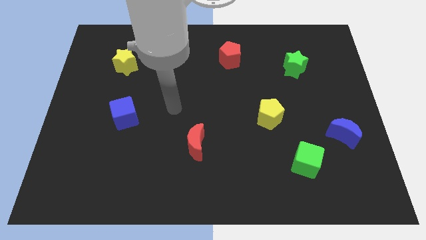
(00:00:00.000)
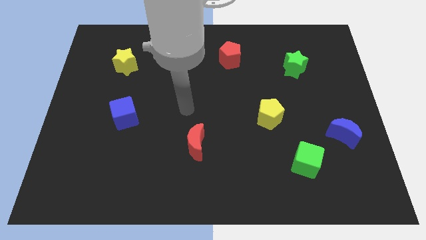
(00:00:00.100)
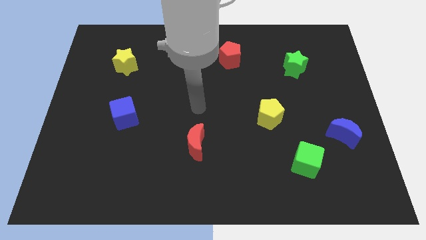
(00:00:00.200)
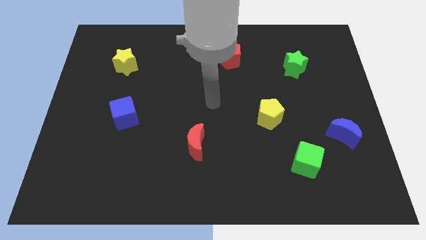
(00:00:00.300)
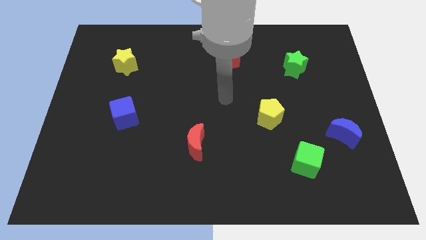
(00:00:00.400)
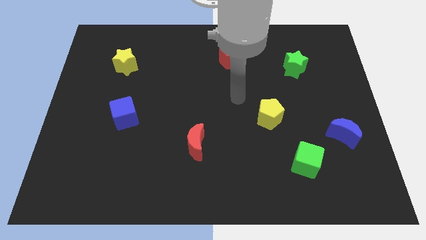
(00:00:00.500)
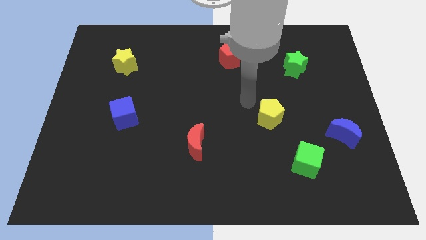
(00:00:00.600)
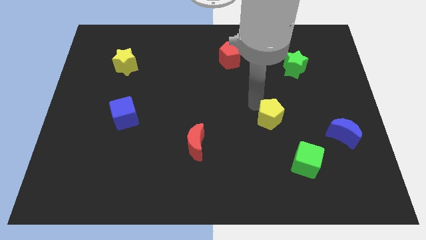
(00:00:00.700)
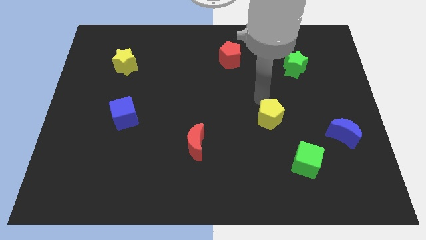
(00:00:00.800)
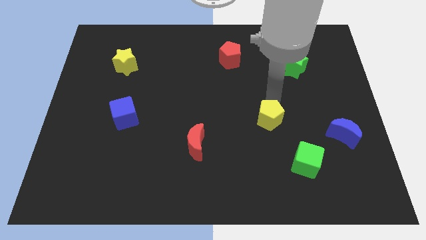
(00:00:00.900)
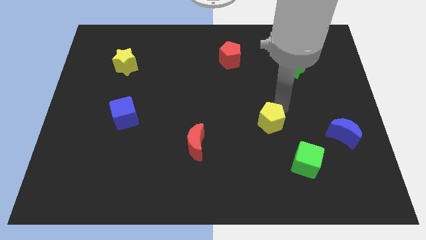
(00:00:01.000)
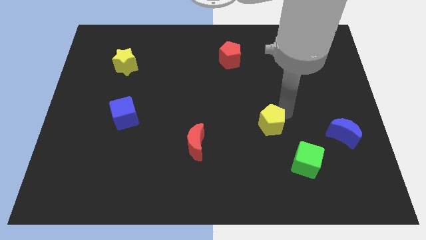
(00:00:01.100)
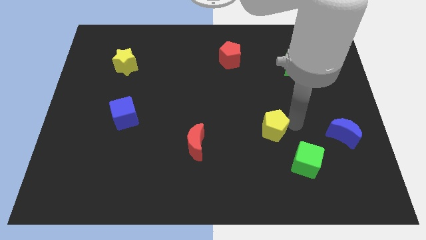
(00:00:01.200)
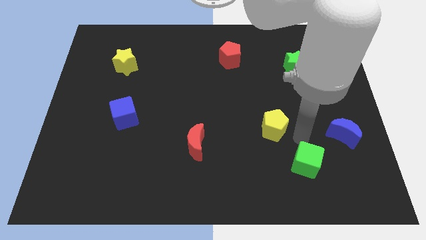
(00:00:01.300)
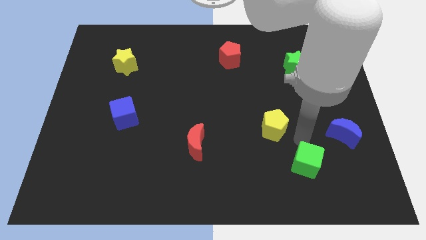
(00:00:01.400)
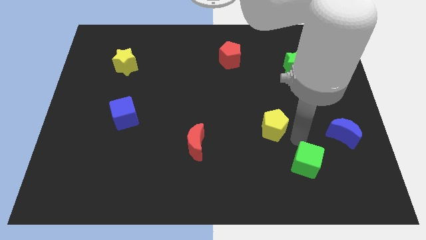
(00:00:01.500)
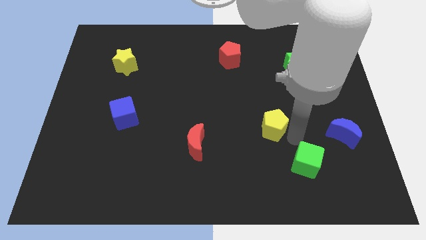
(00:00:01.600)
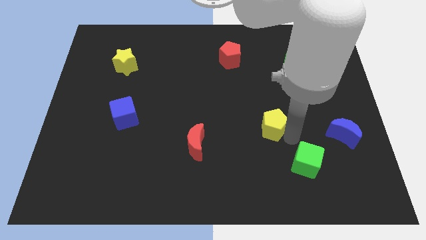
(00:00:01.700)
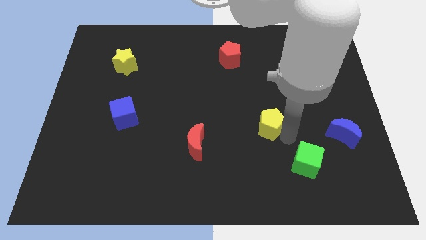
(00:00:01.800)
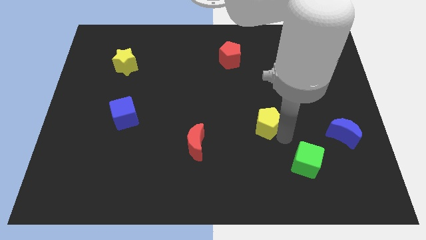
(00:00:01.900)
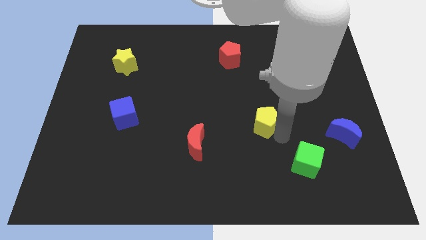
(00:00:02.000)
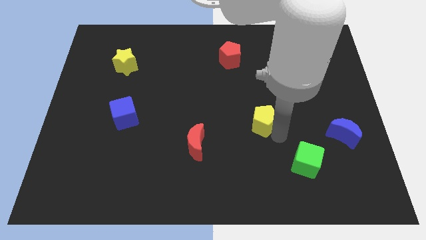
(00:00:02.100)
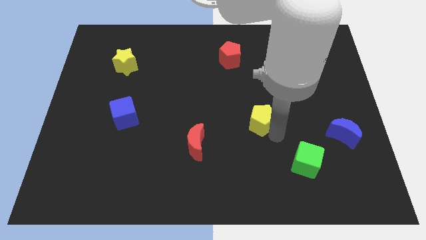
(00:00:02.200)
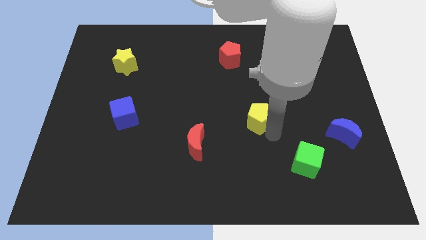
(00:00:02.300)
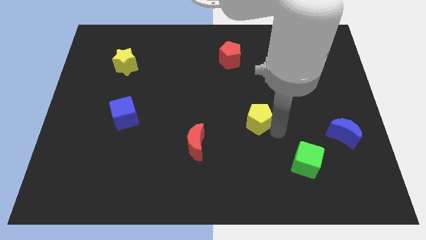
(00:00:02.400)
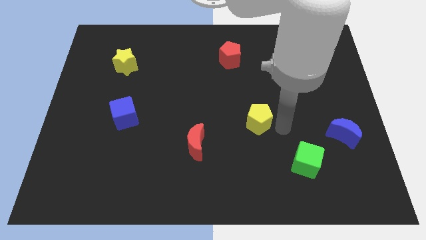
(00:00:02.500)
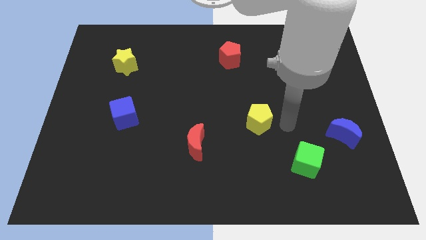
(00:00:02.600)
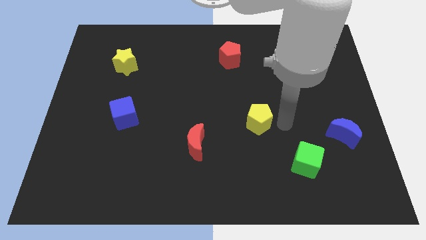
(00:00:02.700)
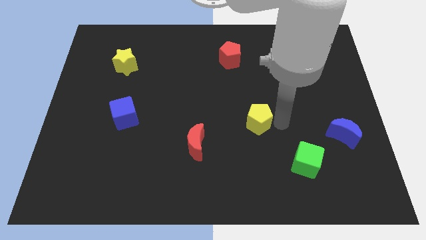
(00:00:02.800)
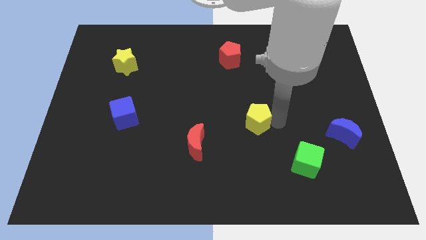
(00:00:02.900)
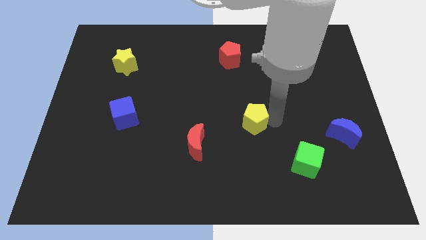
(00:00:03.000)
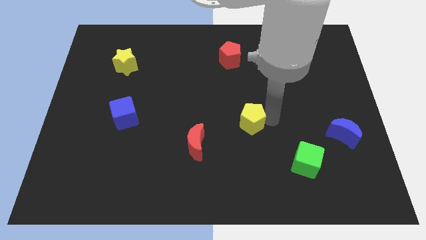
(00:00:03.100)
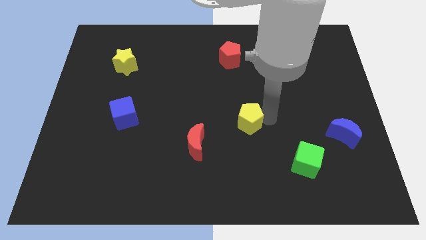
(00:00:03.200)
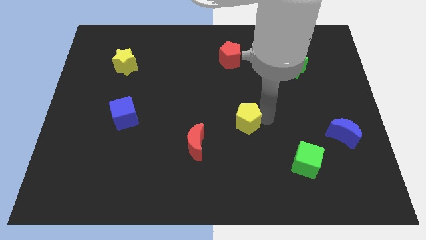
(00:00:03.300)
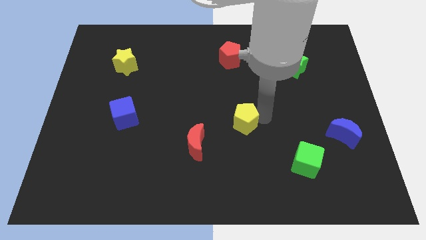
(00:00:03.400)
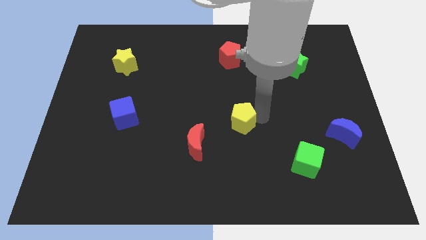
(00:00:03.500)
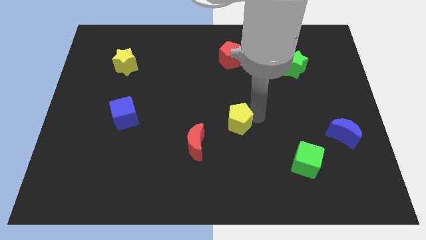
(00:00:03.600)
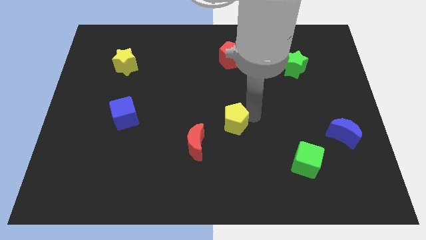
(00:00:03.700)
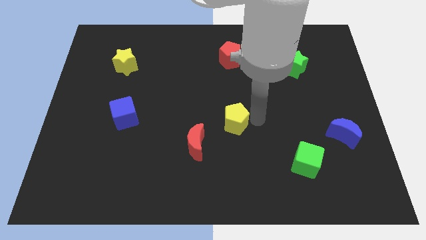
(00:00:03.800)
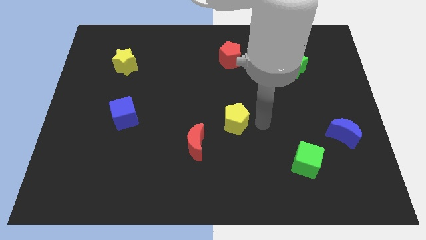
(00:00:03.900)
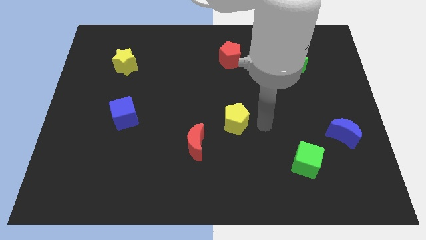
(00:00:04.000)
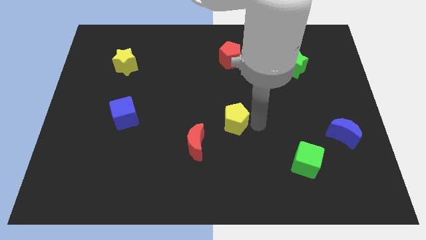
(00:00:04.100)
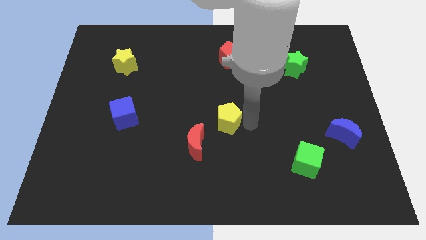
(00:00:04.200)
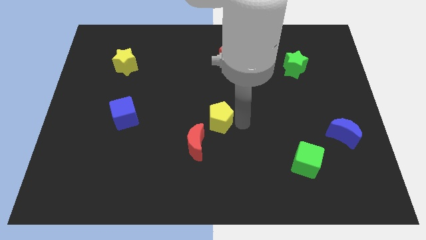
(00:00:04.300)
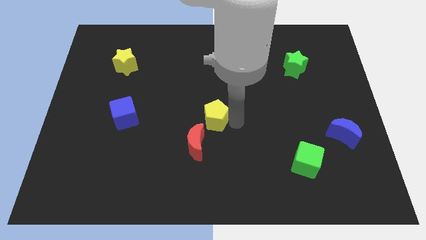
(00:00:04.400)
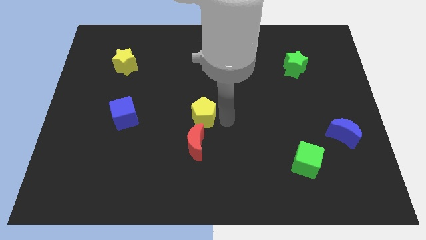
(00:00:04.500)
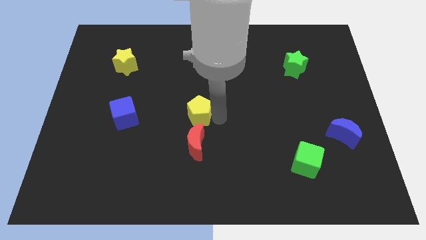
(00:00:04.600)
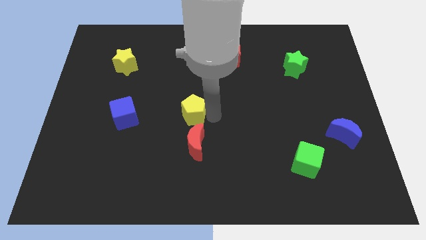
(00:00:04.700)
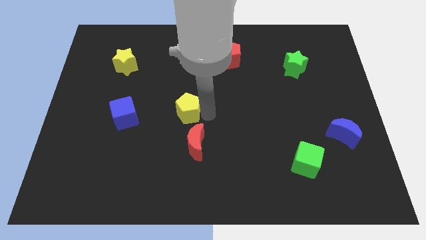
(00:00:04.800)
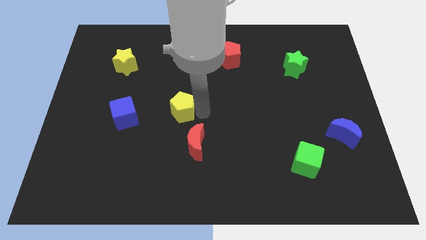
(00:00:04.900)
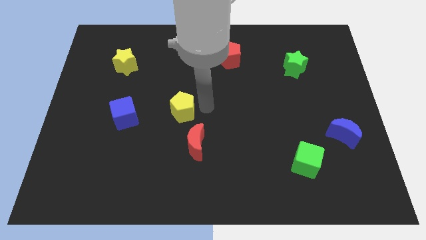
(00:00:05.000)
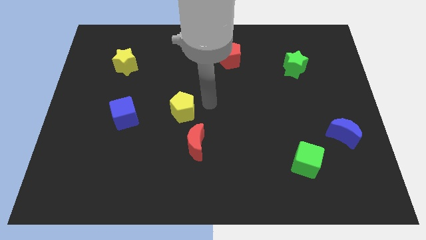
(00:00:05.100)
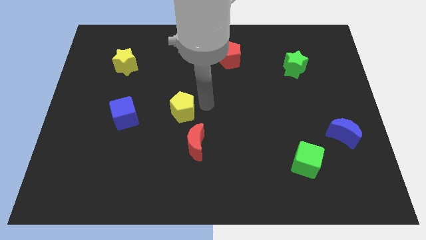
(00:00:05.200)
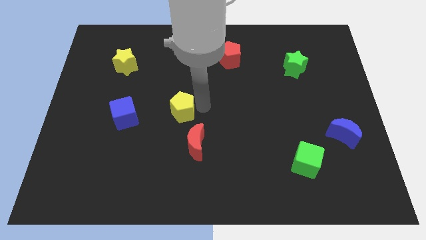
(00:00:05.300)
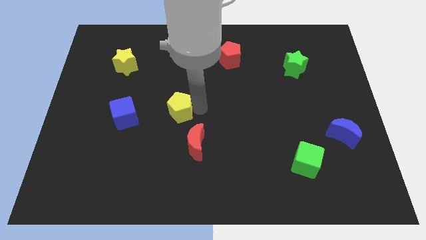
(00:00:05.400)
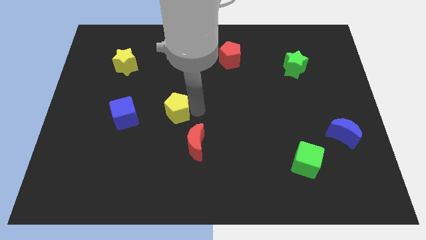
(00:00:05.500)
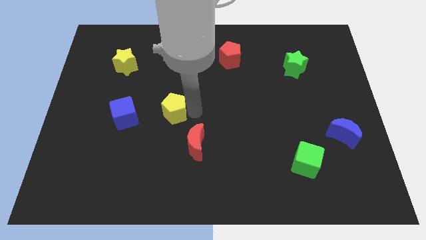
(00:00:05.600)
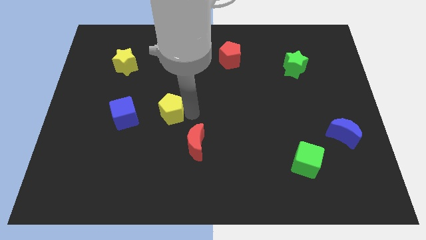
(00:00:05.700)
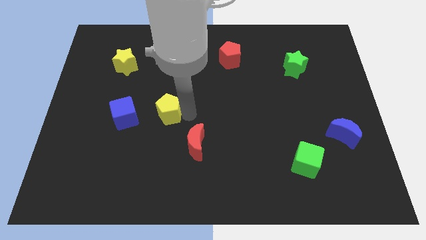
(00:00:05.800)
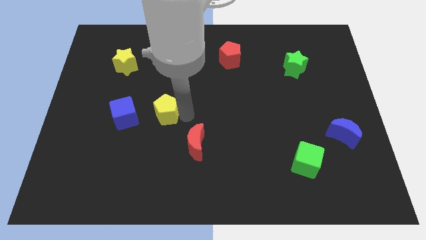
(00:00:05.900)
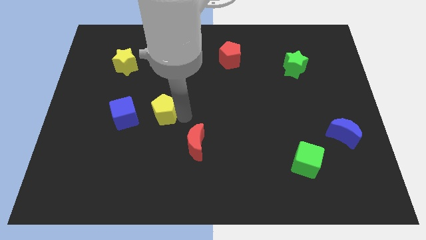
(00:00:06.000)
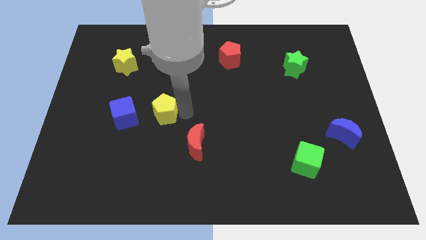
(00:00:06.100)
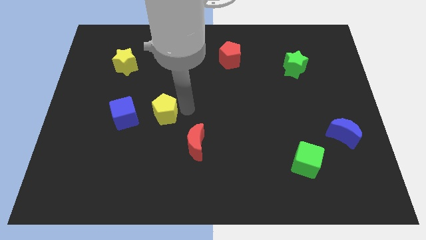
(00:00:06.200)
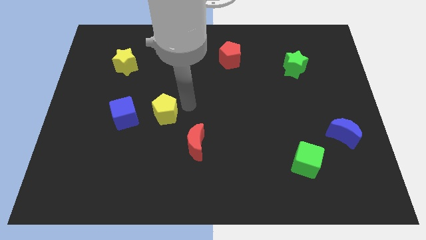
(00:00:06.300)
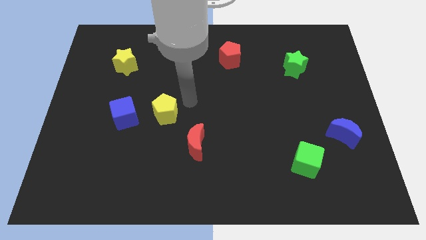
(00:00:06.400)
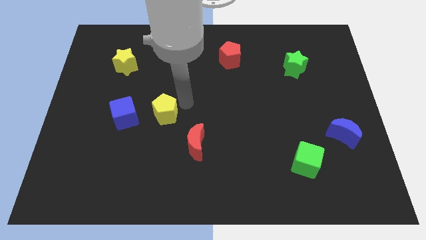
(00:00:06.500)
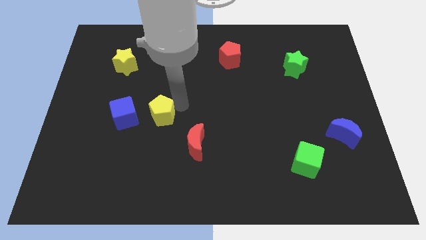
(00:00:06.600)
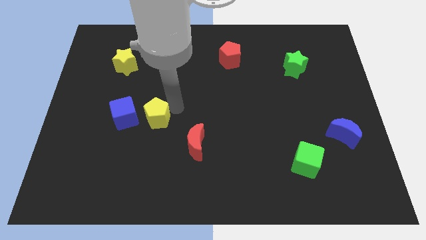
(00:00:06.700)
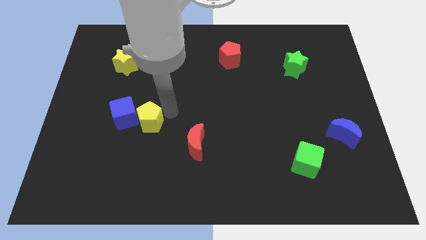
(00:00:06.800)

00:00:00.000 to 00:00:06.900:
put the yellow pentagon next to the blue cube

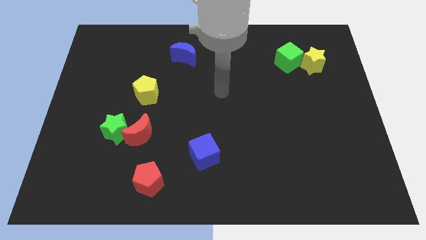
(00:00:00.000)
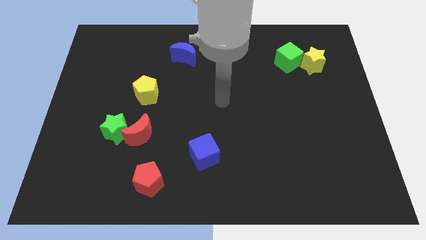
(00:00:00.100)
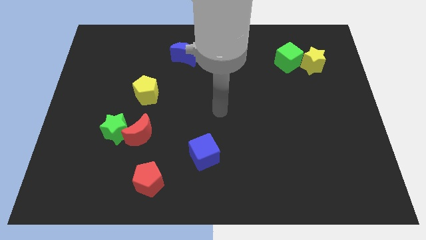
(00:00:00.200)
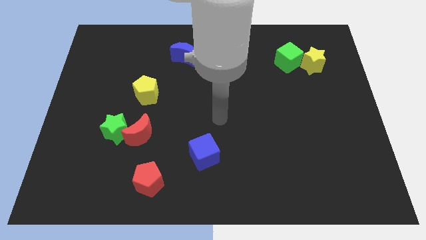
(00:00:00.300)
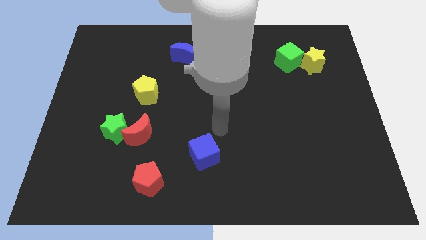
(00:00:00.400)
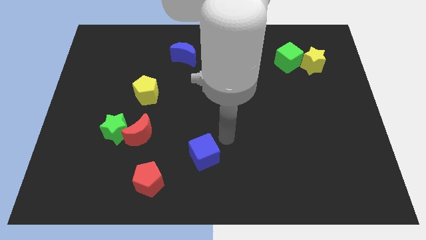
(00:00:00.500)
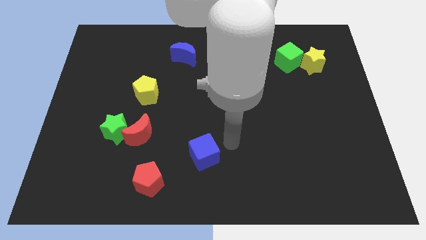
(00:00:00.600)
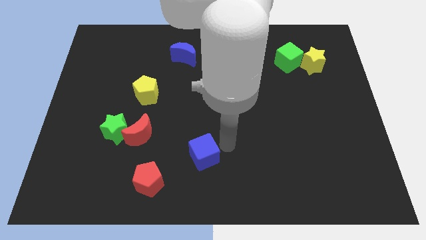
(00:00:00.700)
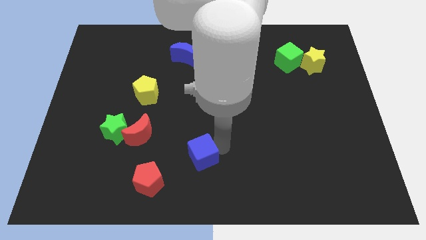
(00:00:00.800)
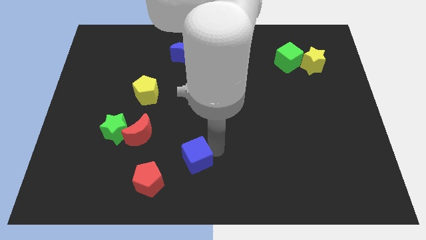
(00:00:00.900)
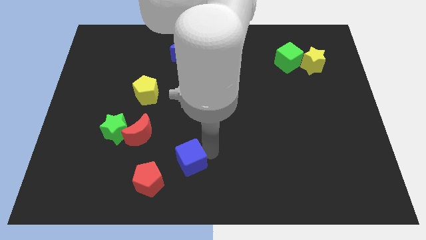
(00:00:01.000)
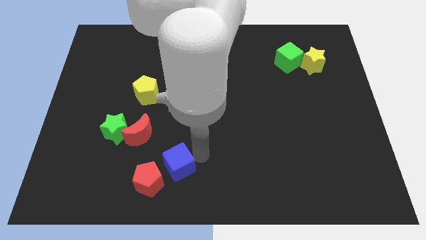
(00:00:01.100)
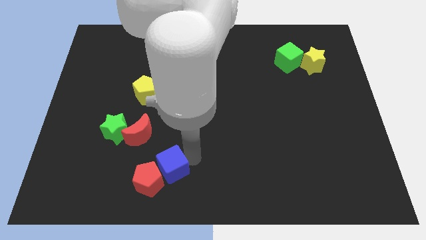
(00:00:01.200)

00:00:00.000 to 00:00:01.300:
push the blue cube next to the red pentagon
